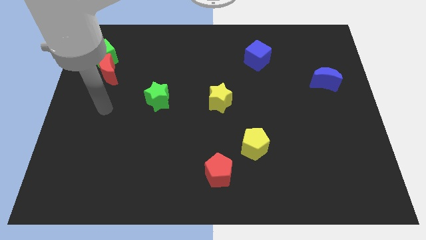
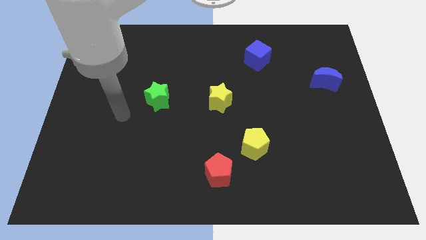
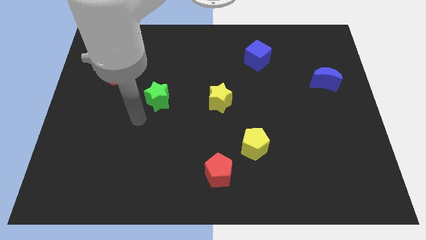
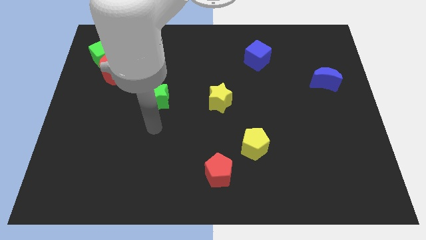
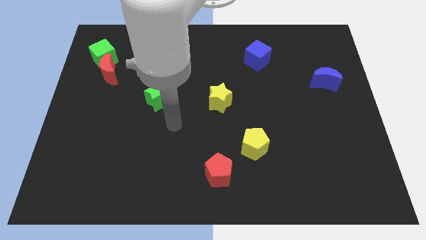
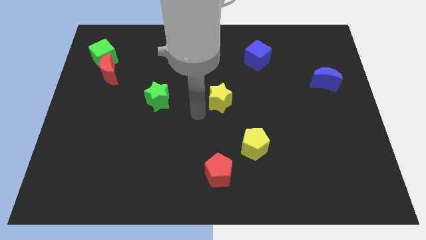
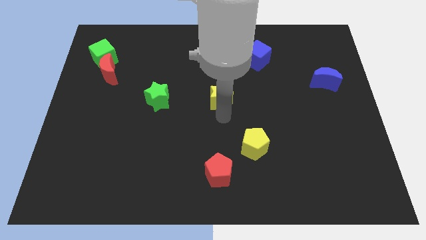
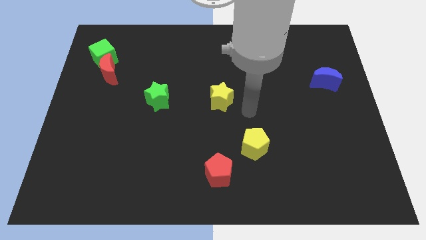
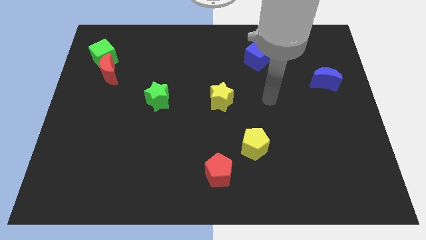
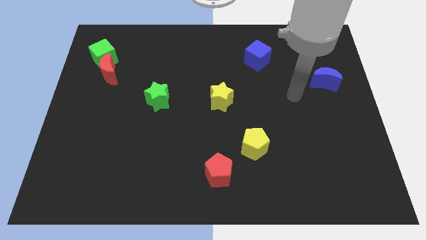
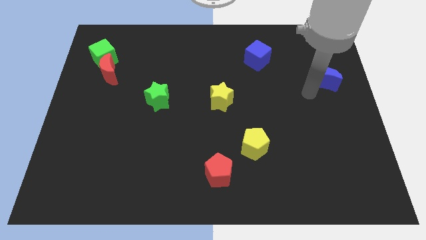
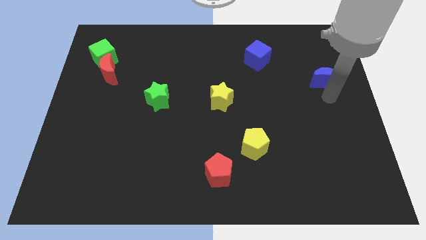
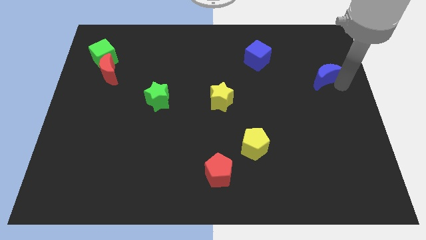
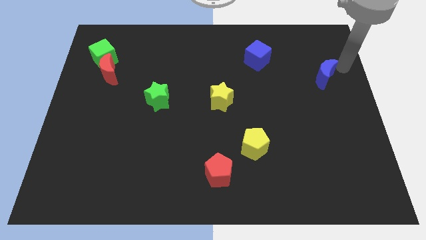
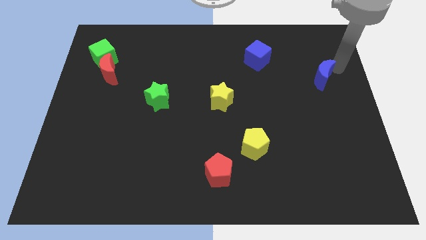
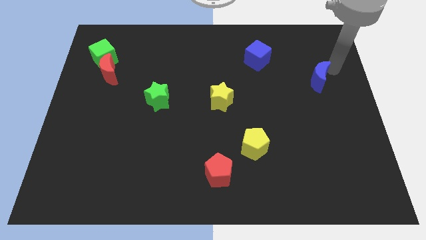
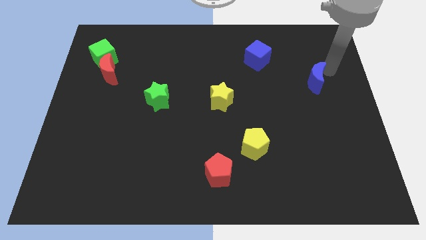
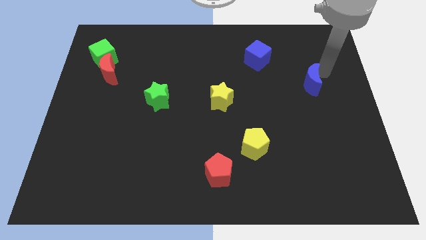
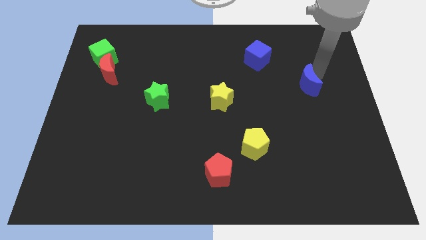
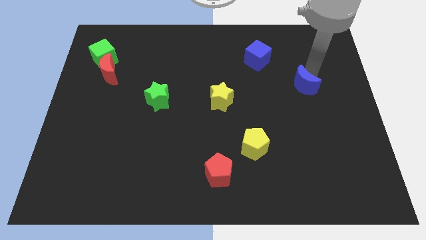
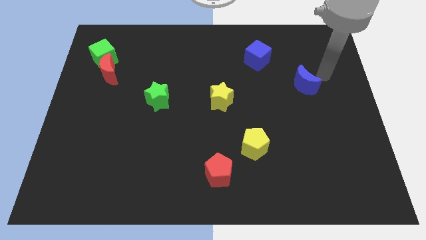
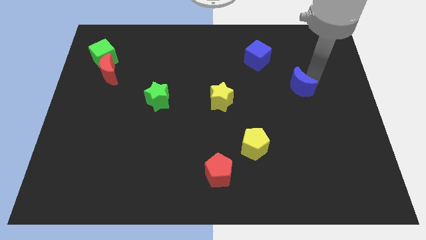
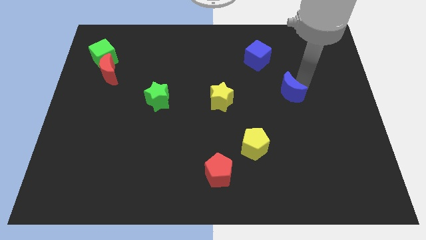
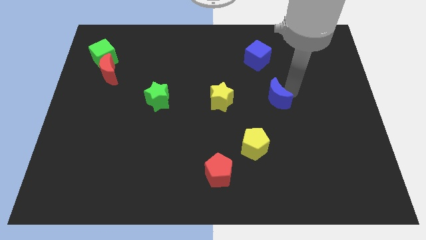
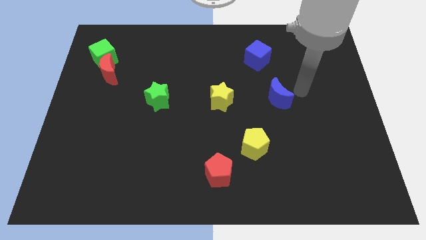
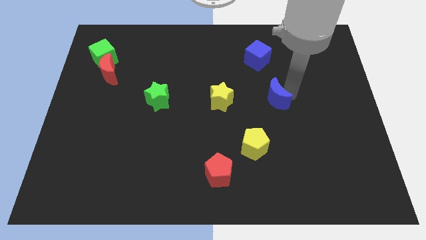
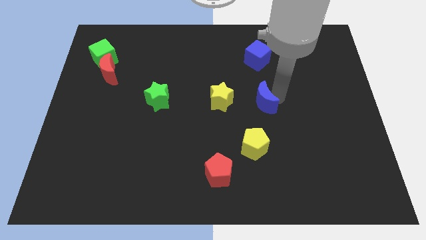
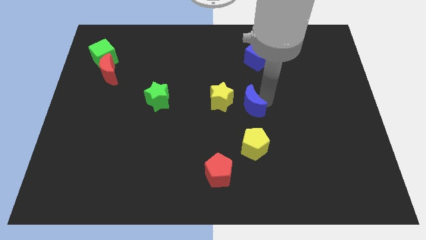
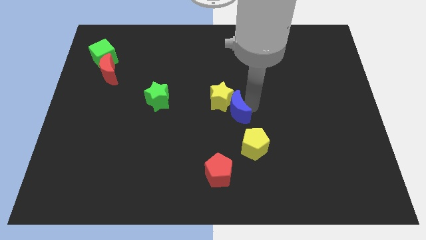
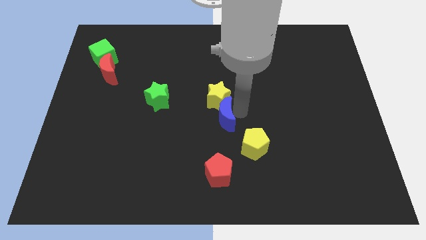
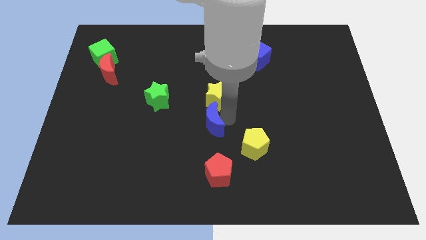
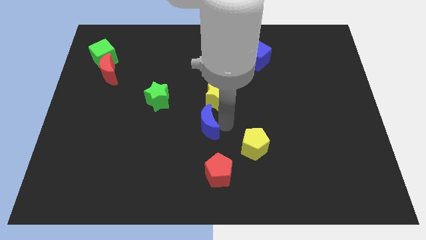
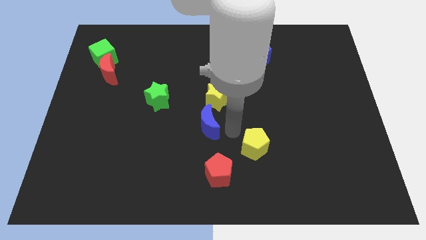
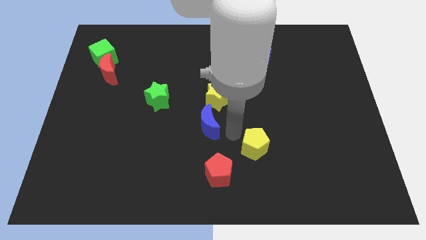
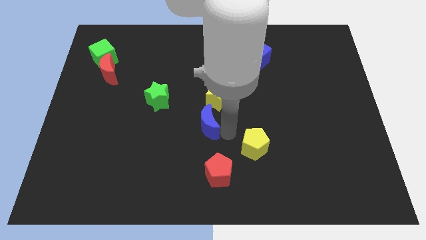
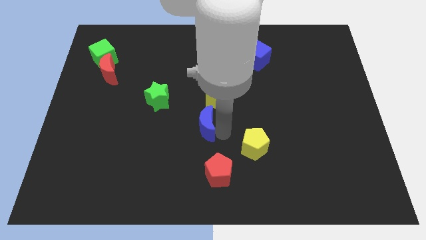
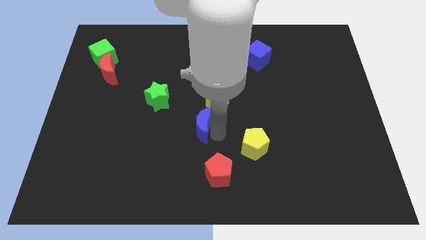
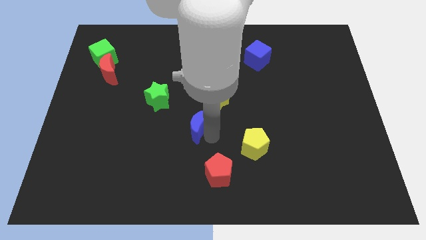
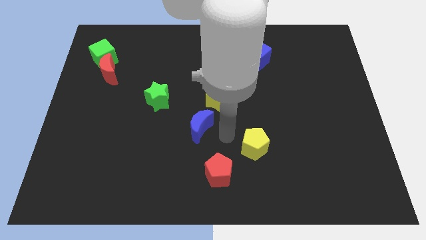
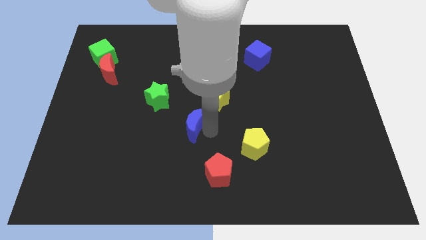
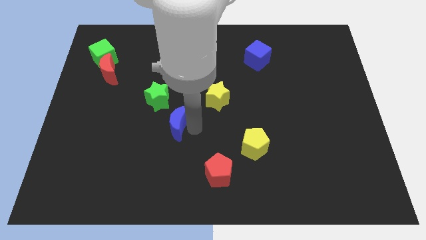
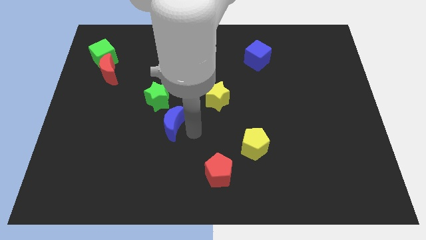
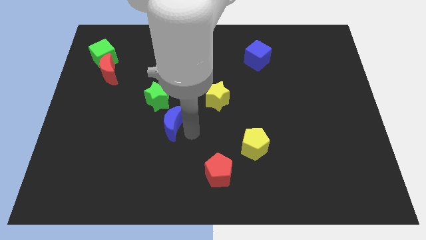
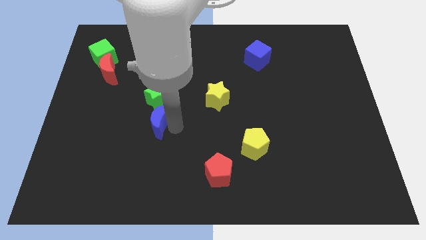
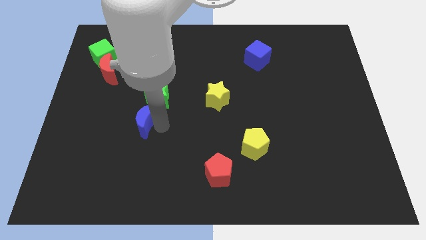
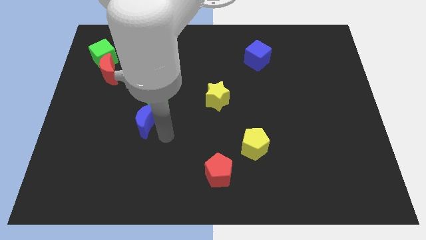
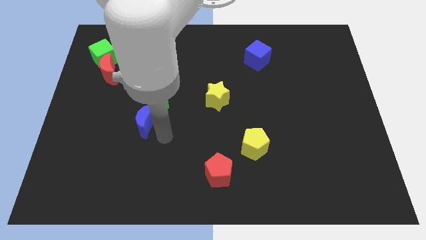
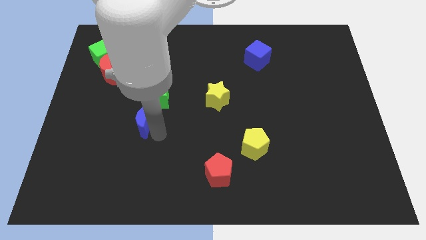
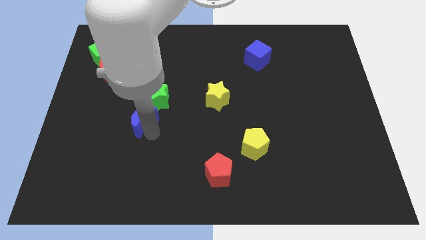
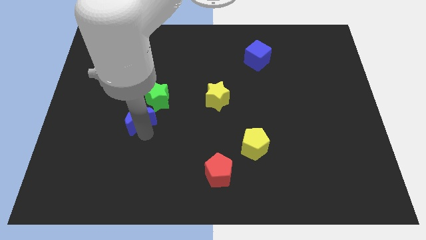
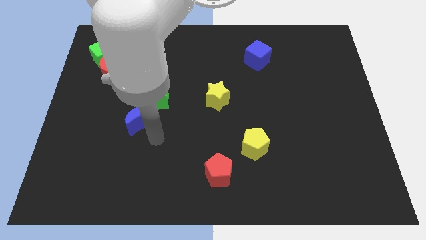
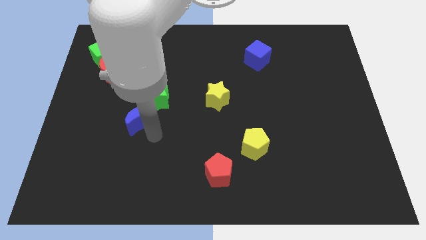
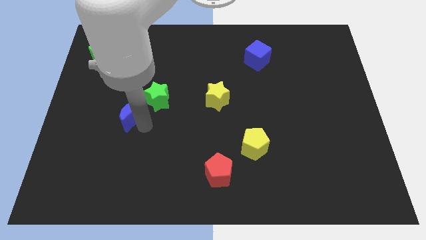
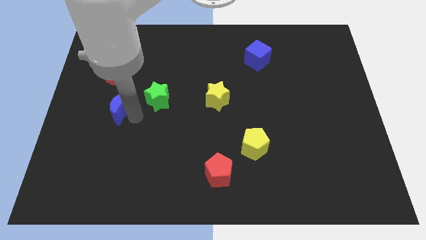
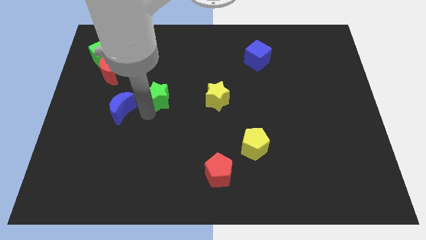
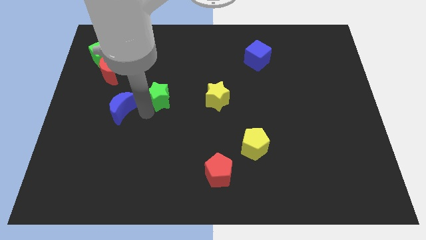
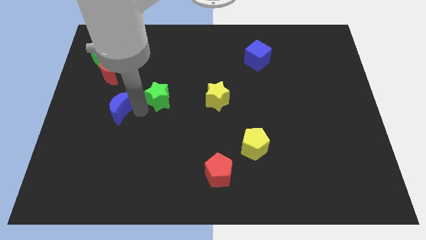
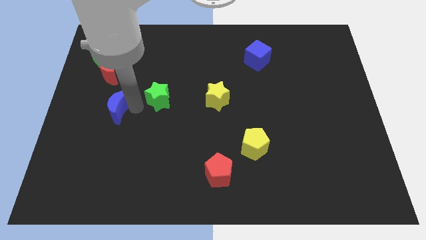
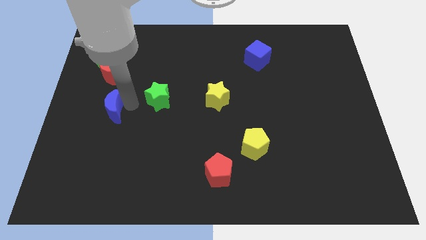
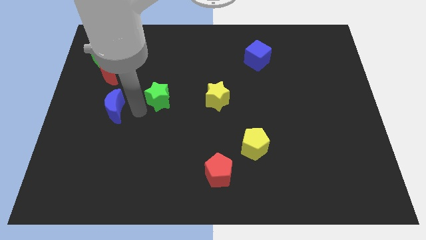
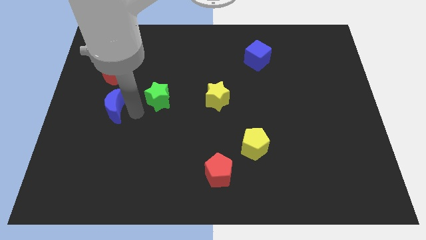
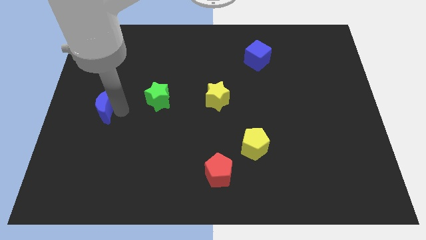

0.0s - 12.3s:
slide the blue moon to the left side of the board

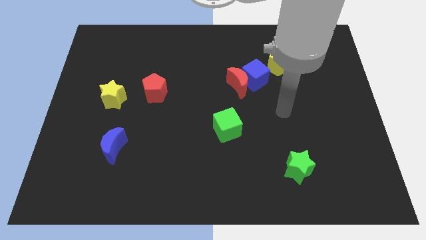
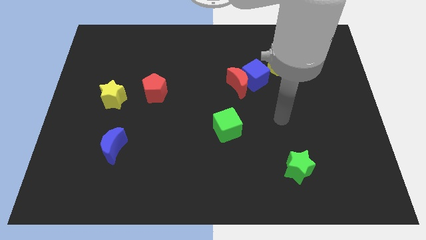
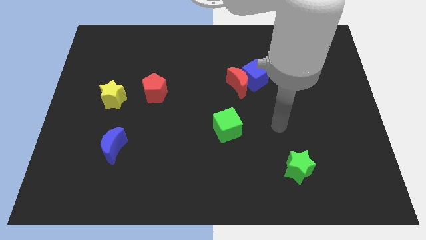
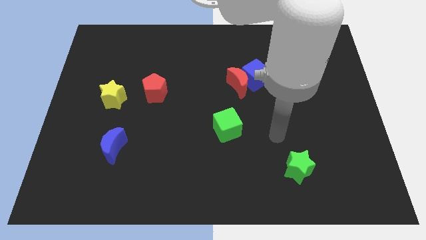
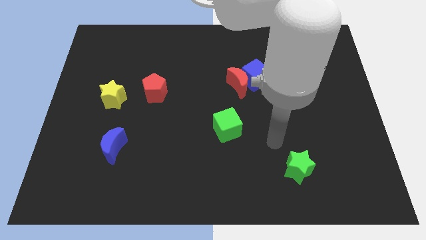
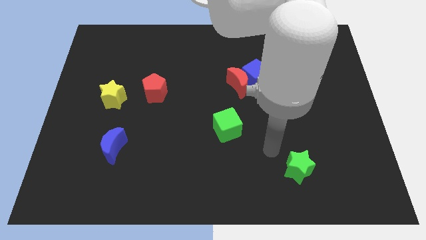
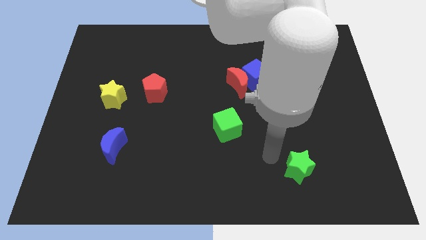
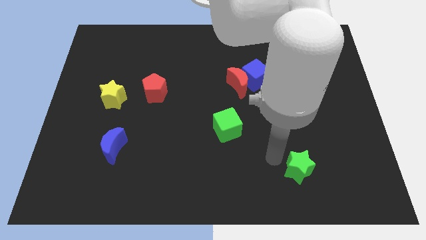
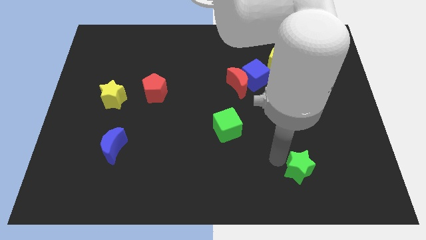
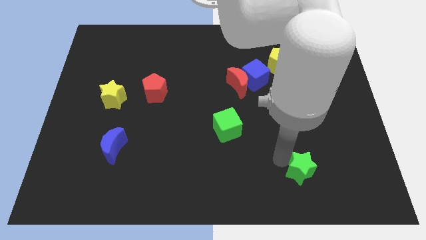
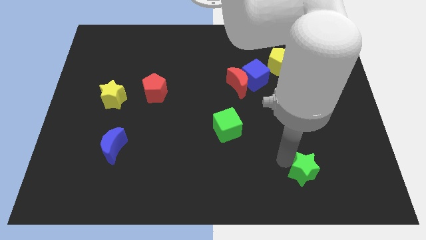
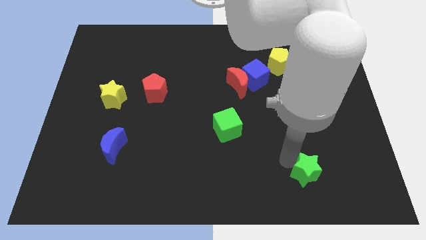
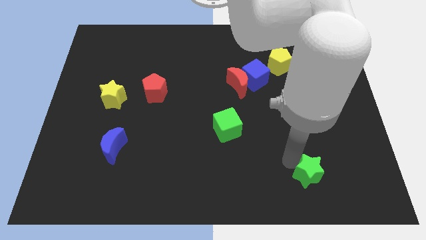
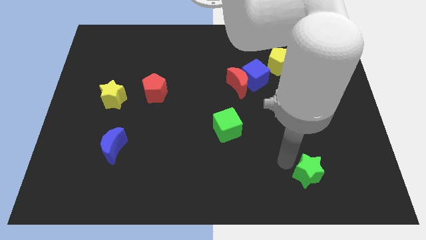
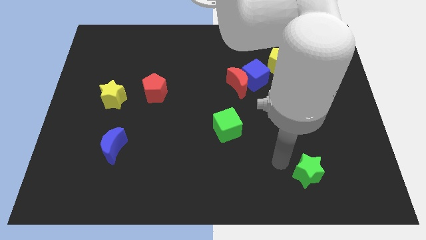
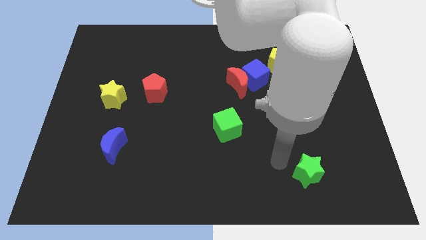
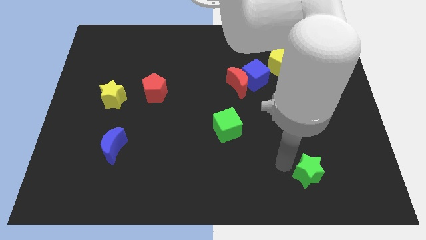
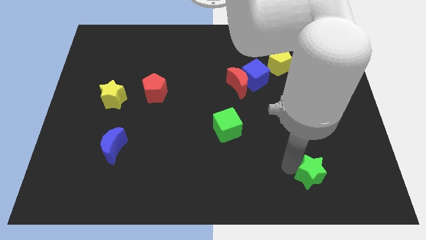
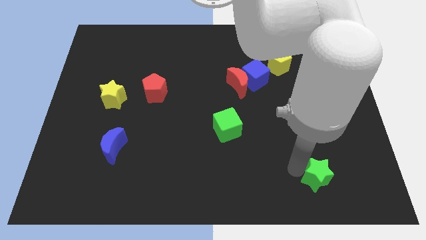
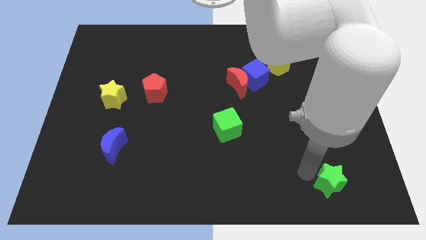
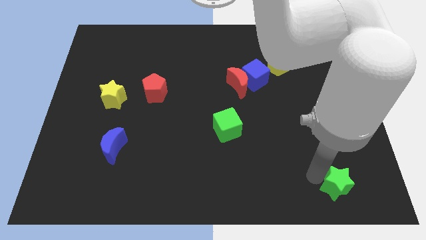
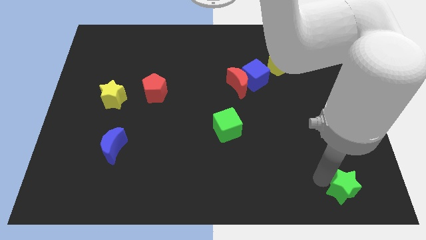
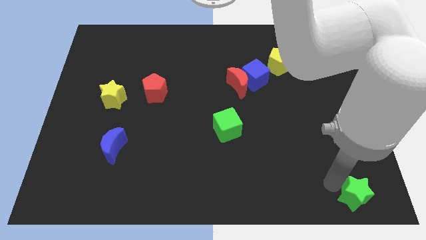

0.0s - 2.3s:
slide the green star to the bottom right corner
